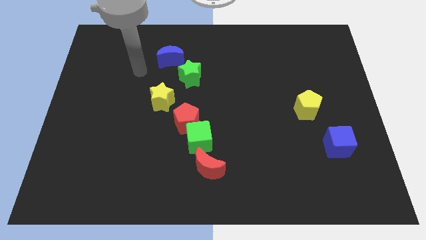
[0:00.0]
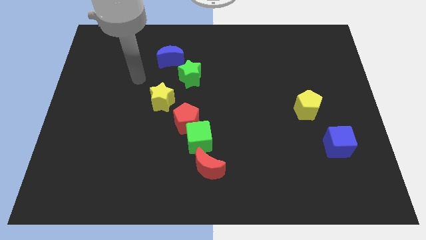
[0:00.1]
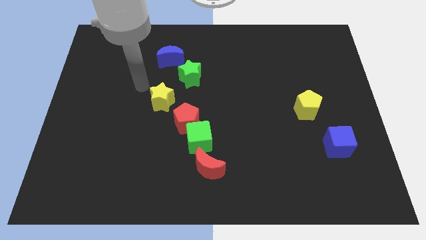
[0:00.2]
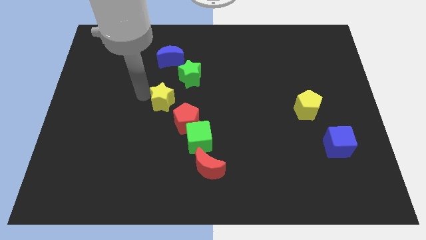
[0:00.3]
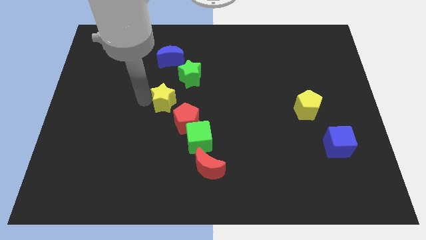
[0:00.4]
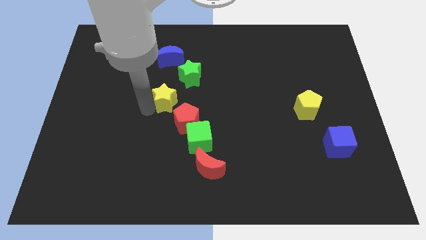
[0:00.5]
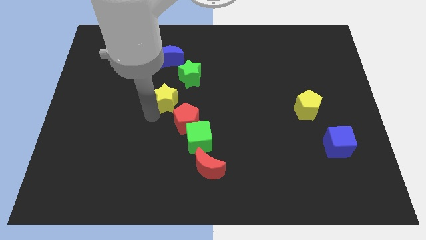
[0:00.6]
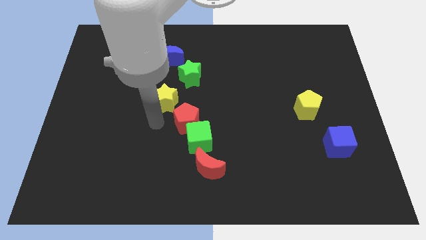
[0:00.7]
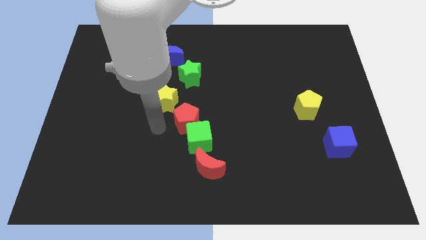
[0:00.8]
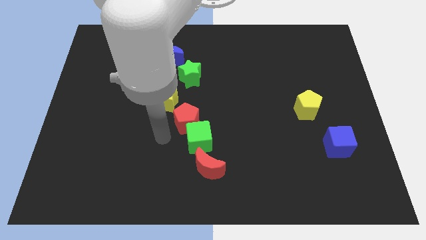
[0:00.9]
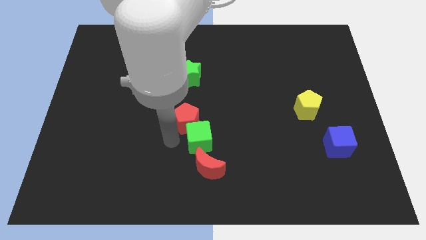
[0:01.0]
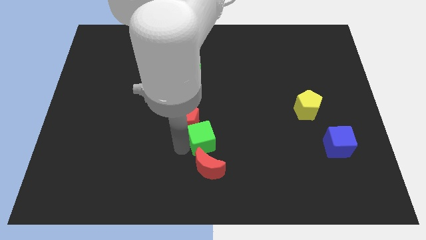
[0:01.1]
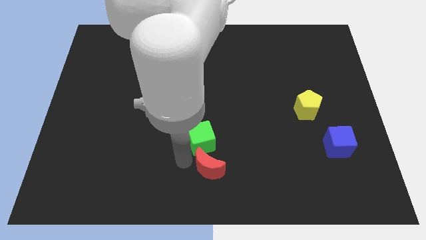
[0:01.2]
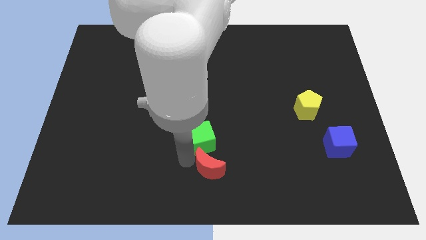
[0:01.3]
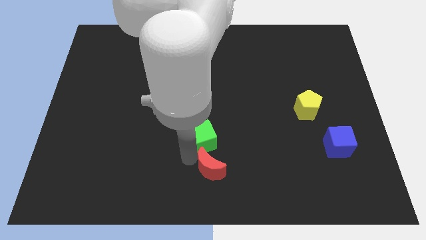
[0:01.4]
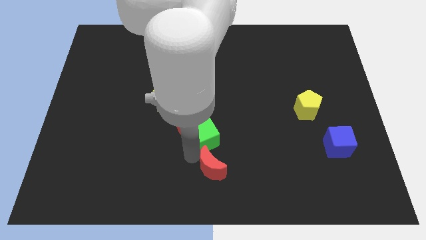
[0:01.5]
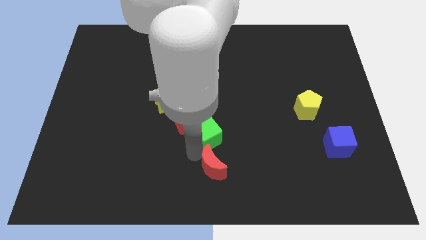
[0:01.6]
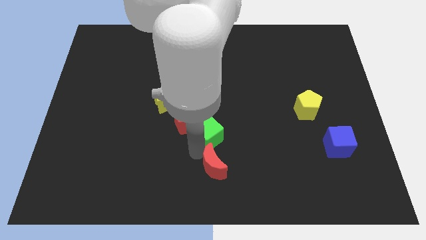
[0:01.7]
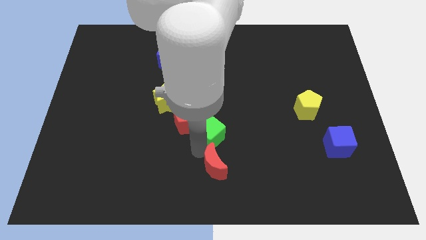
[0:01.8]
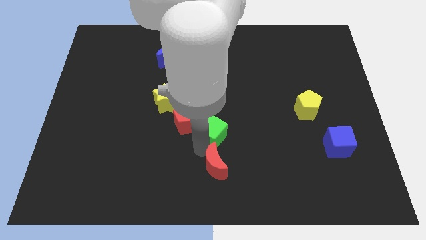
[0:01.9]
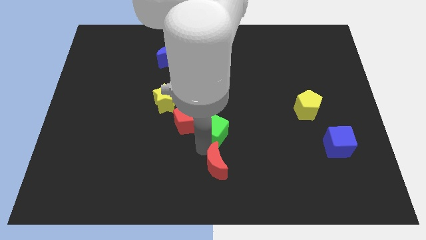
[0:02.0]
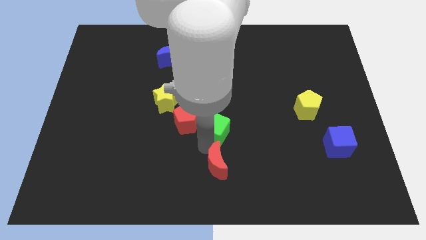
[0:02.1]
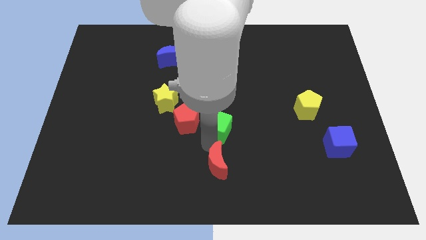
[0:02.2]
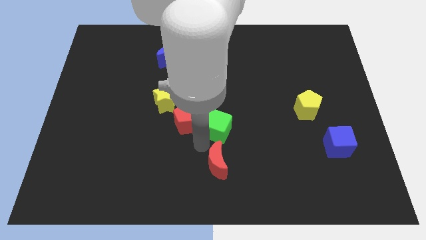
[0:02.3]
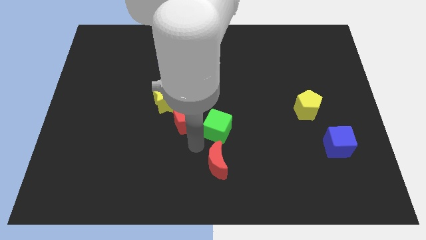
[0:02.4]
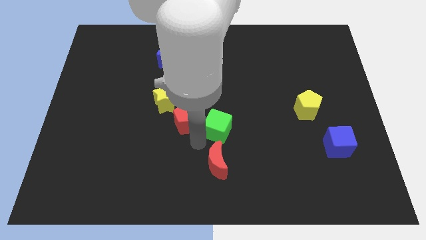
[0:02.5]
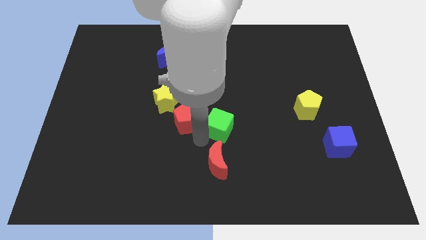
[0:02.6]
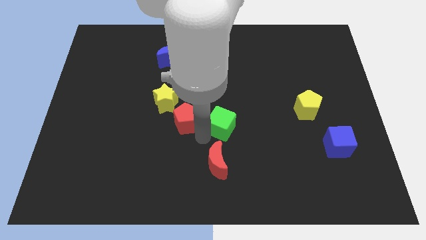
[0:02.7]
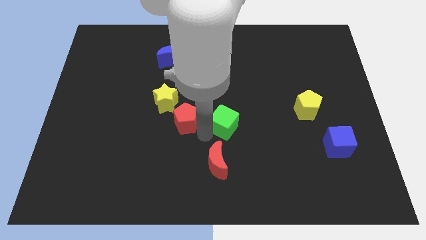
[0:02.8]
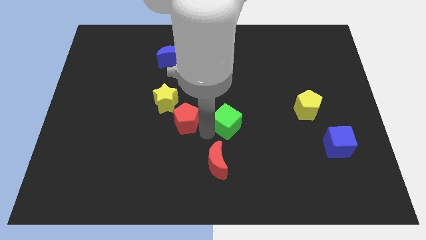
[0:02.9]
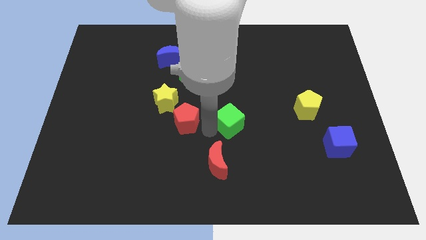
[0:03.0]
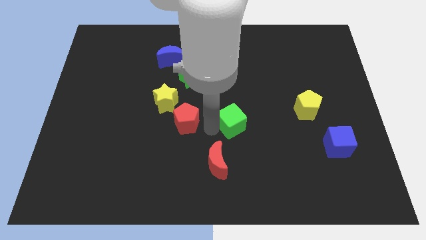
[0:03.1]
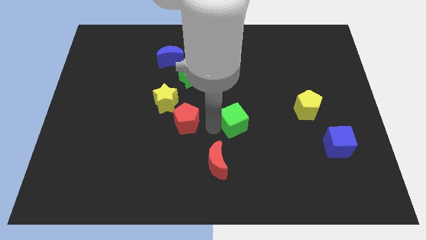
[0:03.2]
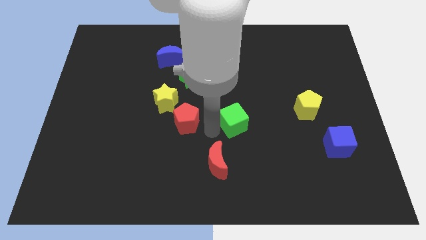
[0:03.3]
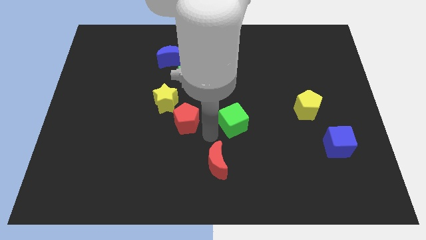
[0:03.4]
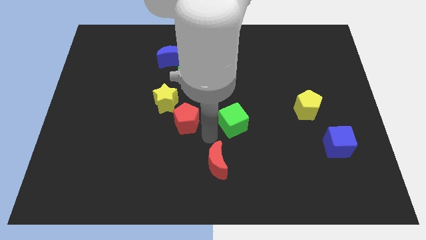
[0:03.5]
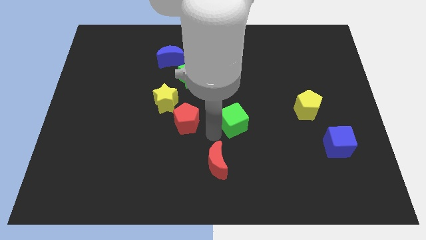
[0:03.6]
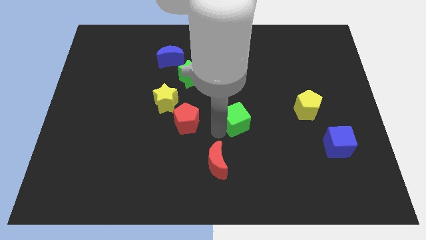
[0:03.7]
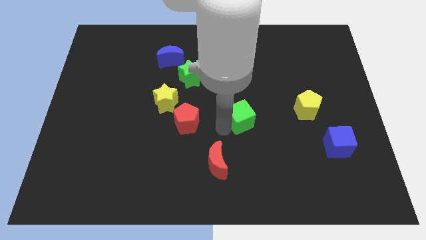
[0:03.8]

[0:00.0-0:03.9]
move the green cube away from the red pentagon and red moon

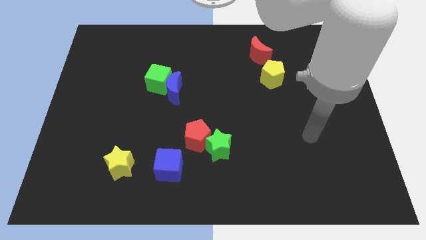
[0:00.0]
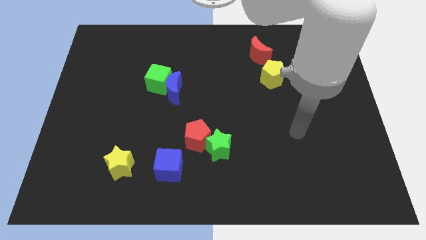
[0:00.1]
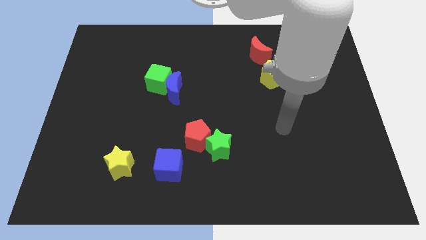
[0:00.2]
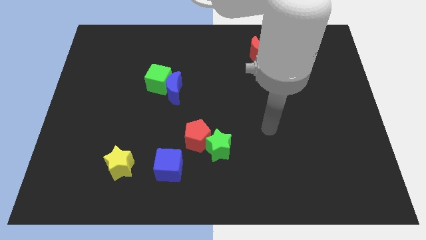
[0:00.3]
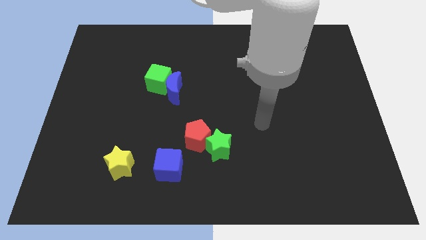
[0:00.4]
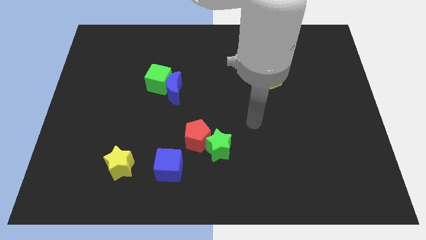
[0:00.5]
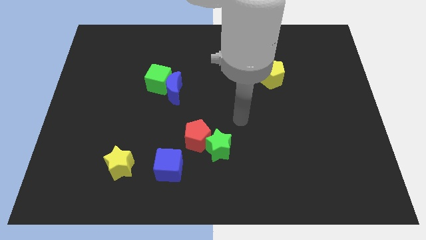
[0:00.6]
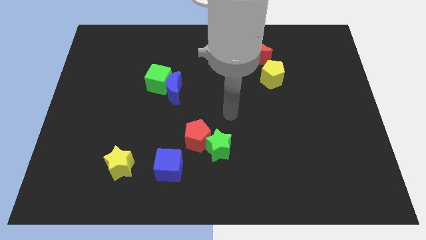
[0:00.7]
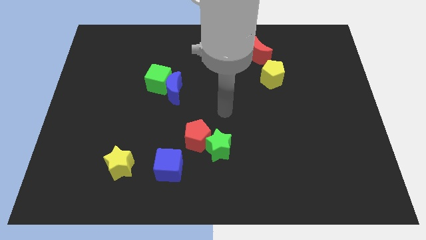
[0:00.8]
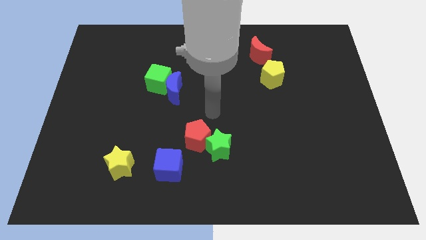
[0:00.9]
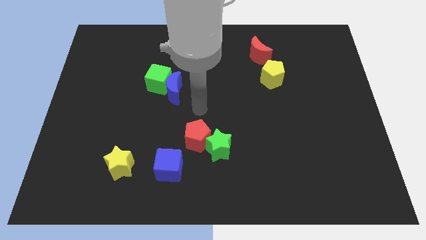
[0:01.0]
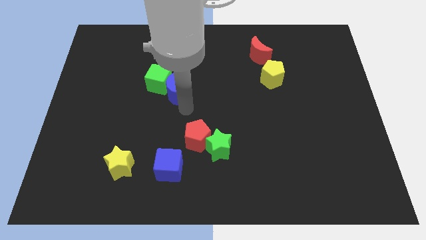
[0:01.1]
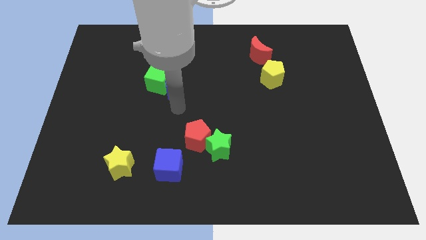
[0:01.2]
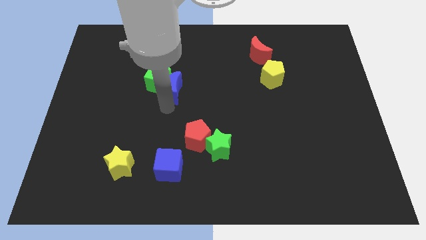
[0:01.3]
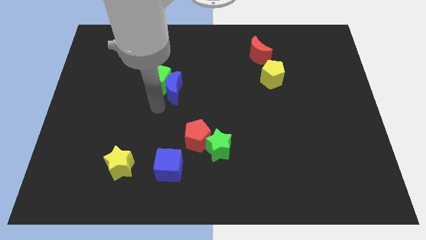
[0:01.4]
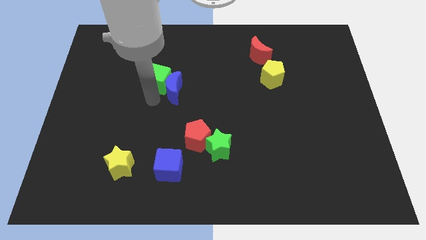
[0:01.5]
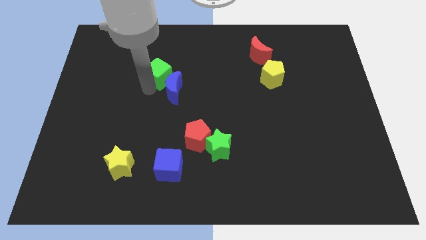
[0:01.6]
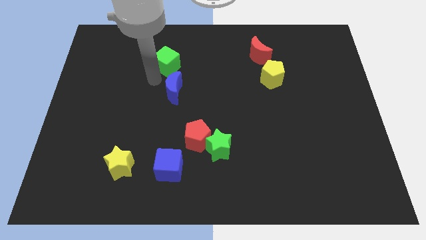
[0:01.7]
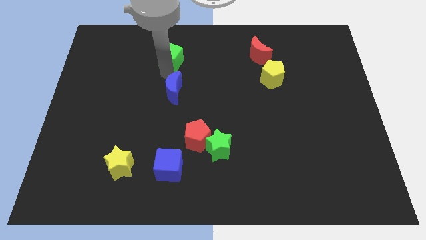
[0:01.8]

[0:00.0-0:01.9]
separate the blue moon from the green cube

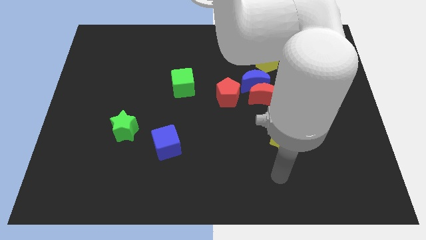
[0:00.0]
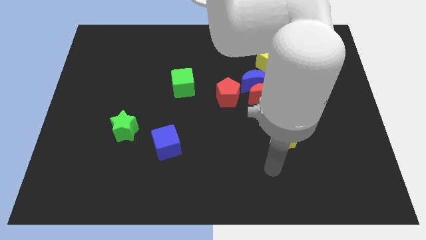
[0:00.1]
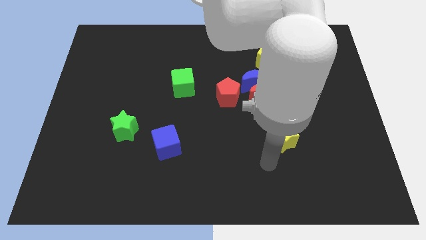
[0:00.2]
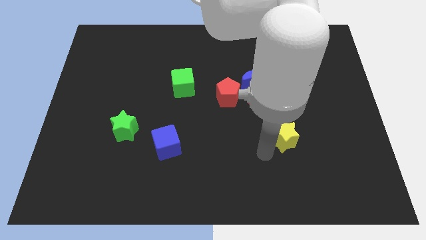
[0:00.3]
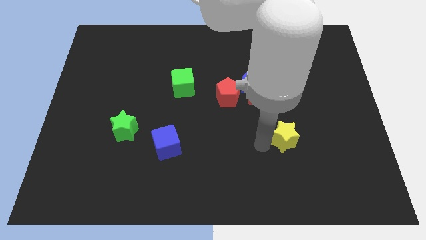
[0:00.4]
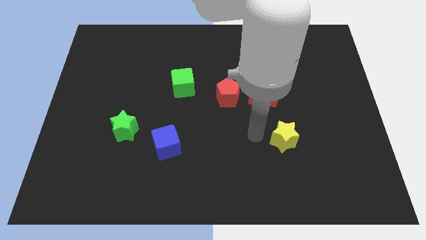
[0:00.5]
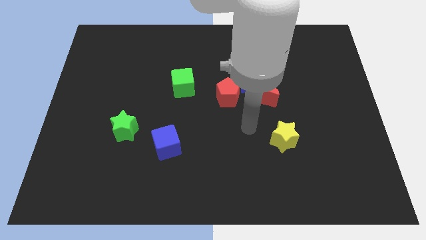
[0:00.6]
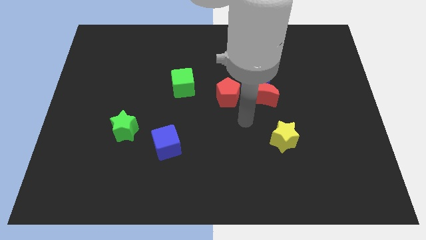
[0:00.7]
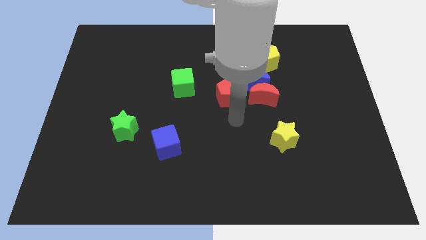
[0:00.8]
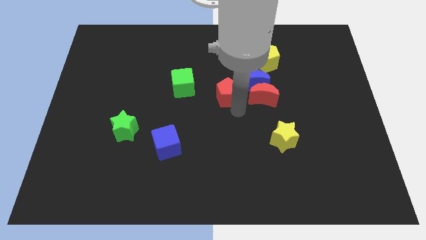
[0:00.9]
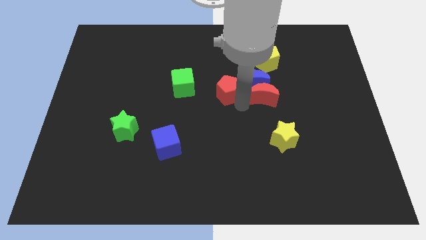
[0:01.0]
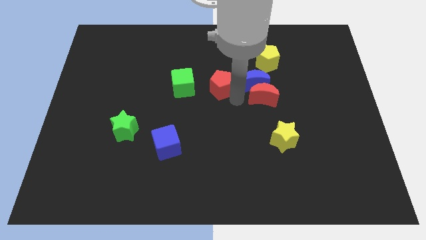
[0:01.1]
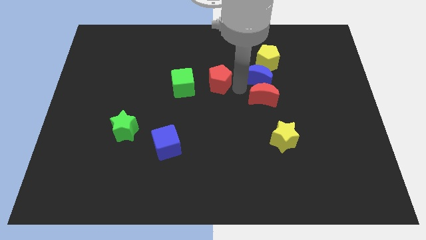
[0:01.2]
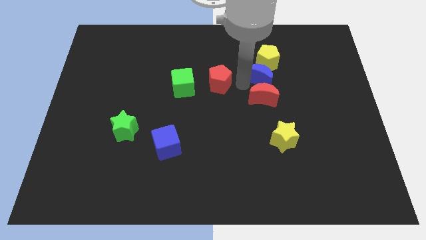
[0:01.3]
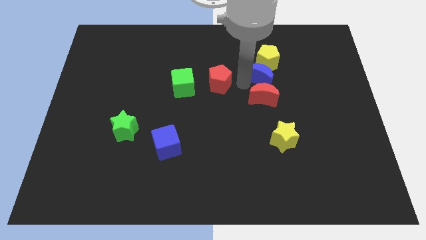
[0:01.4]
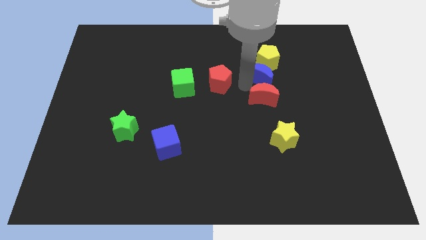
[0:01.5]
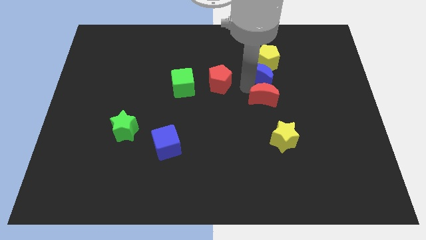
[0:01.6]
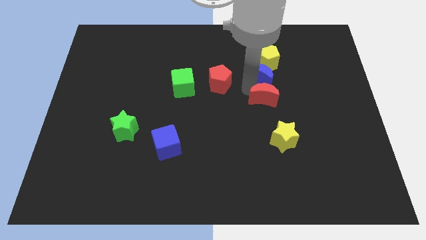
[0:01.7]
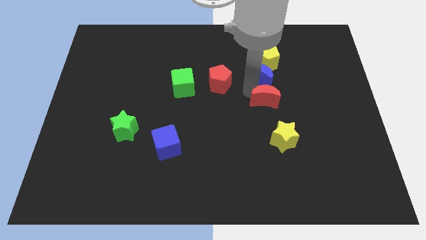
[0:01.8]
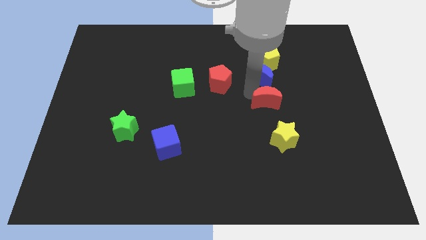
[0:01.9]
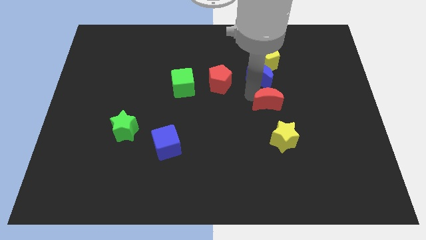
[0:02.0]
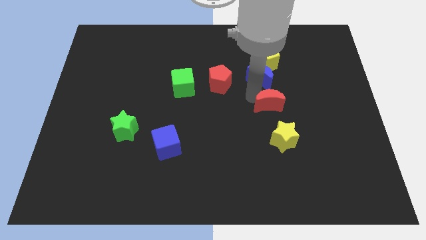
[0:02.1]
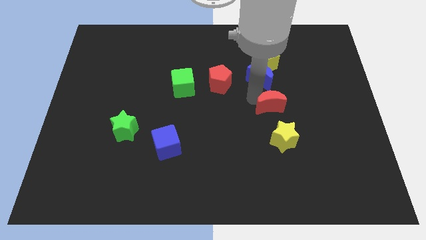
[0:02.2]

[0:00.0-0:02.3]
pull the red moon apart from the blue moon and red pentagon

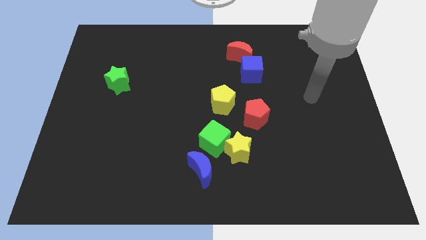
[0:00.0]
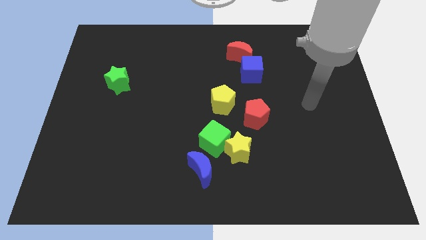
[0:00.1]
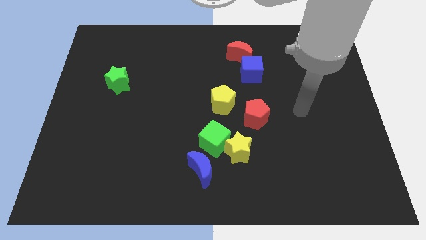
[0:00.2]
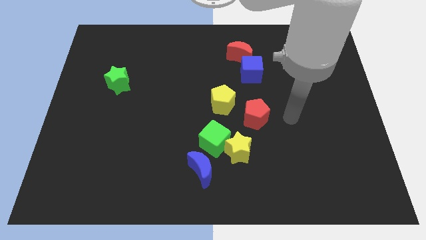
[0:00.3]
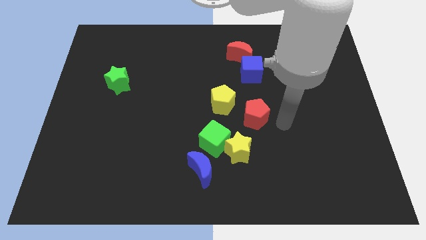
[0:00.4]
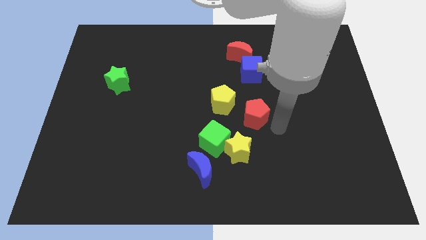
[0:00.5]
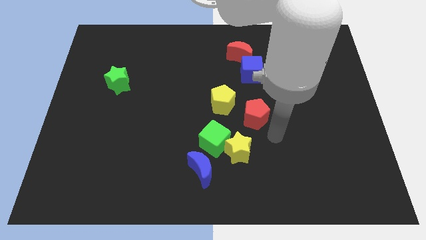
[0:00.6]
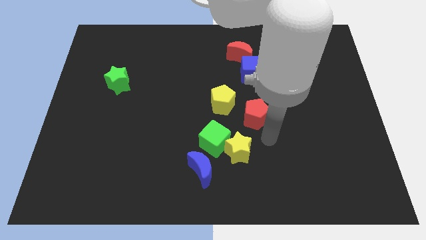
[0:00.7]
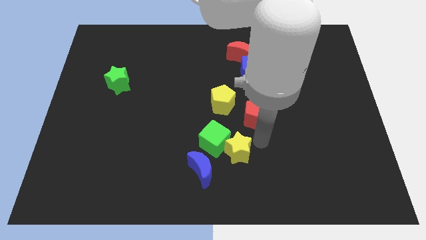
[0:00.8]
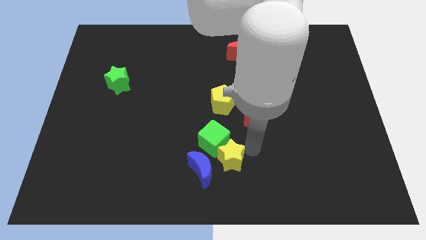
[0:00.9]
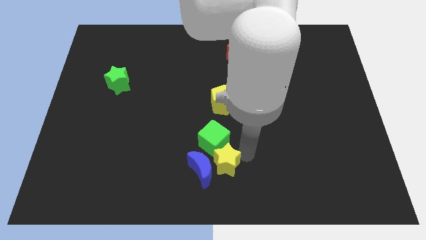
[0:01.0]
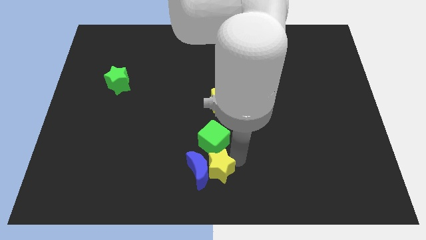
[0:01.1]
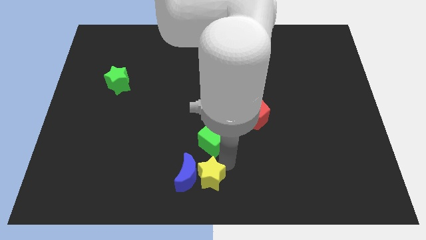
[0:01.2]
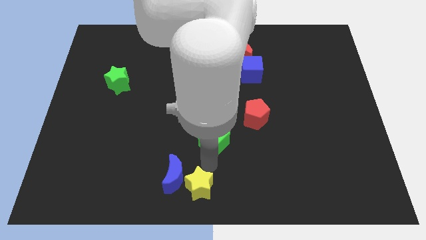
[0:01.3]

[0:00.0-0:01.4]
move the green cube away from the yellow star and blue moon

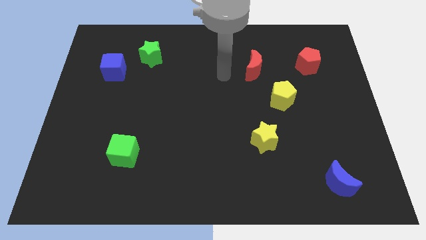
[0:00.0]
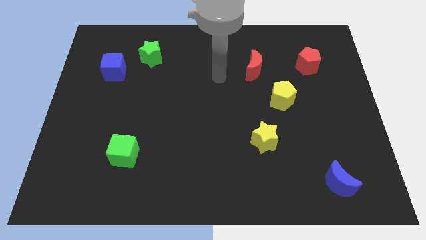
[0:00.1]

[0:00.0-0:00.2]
separate the blue cube from the green star
